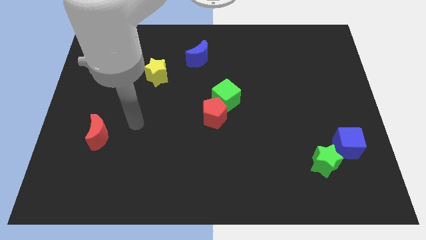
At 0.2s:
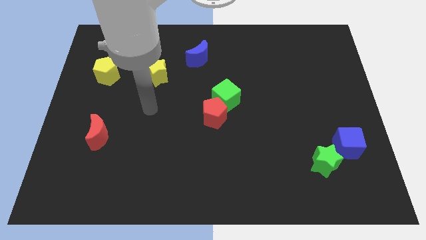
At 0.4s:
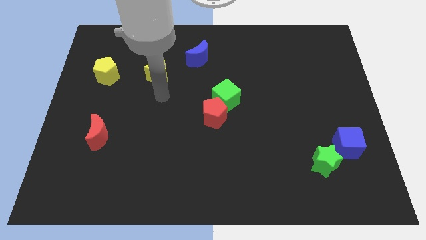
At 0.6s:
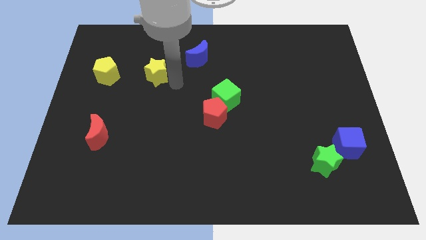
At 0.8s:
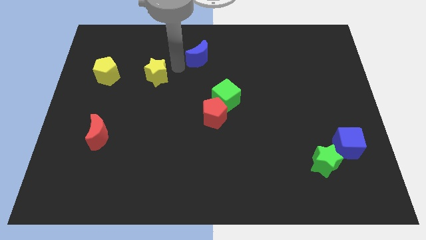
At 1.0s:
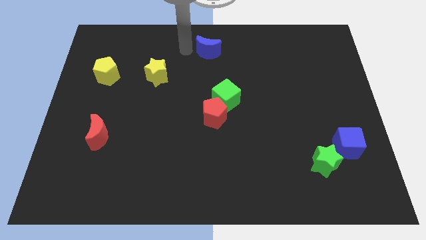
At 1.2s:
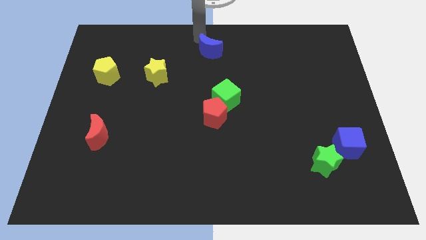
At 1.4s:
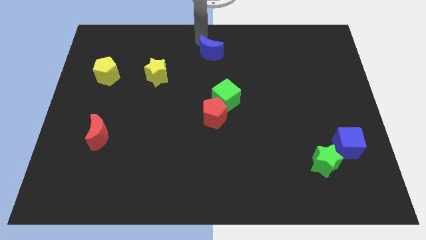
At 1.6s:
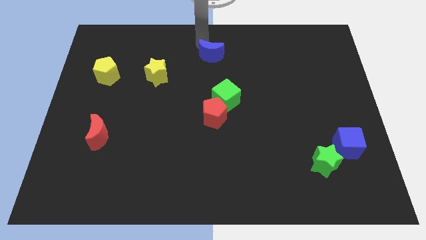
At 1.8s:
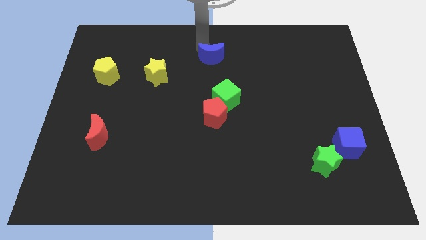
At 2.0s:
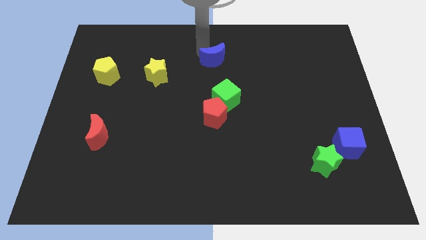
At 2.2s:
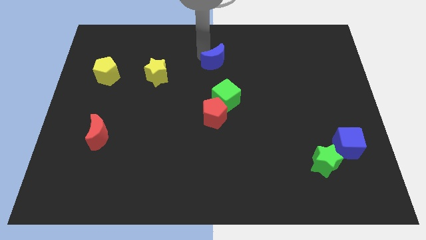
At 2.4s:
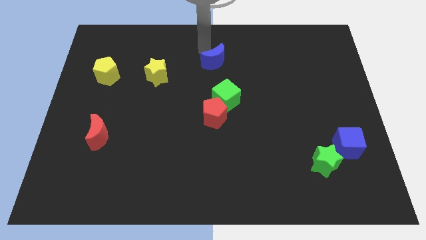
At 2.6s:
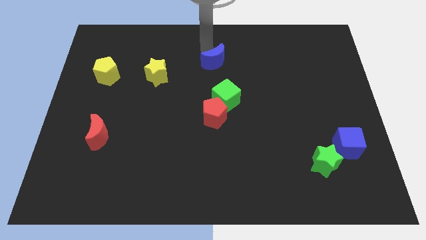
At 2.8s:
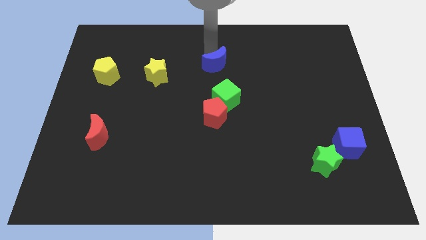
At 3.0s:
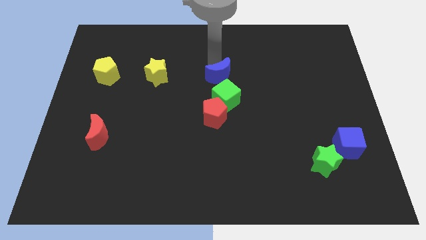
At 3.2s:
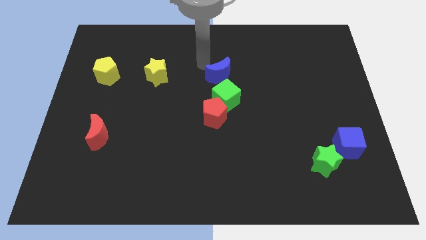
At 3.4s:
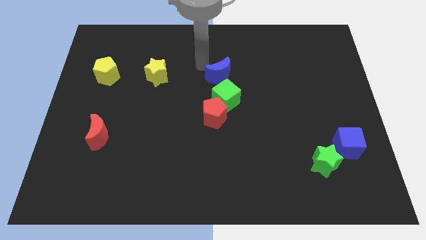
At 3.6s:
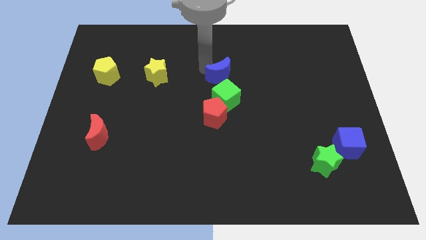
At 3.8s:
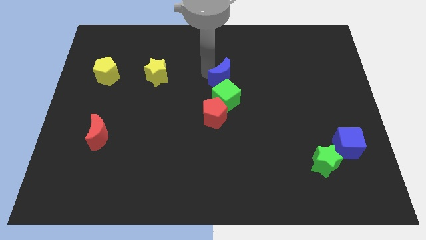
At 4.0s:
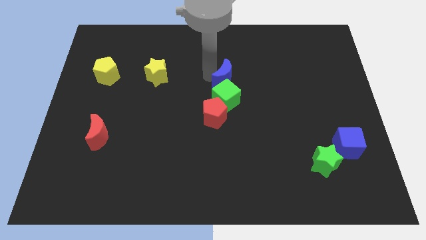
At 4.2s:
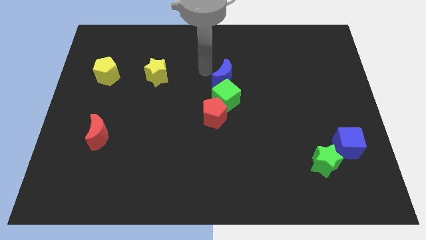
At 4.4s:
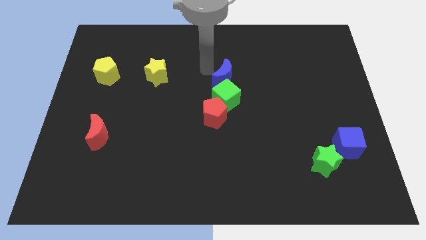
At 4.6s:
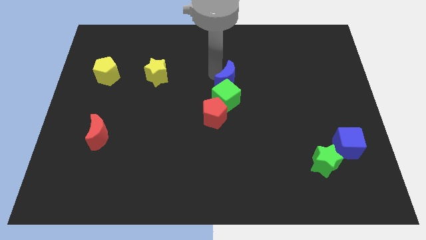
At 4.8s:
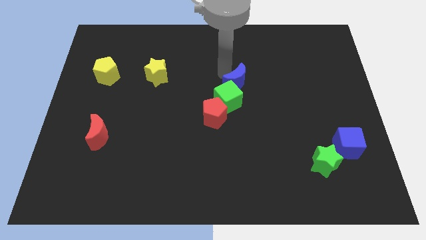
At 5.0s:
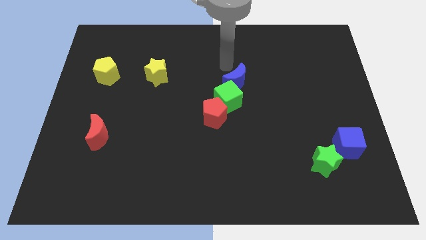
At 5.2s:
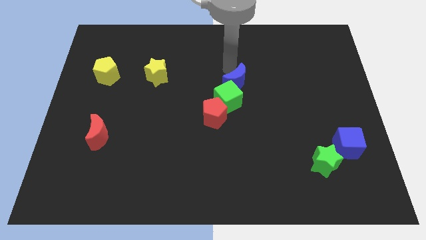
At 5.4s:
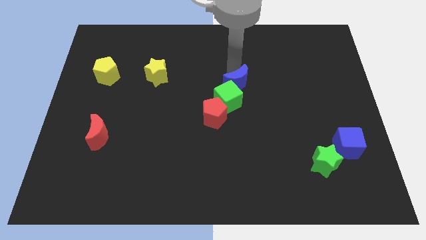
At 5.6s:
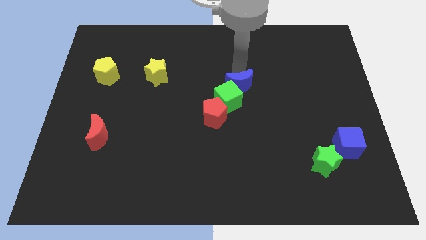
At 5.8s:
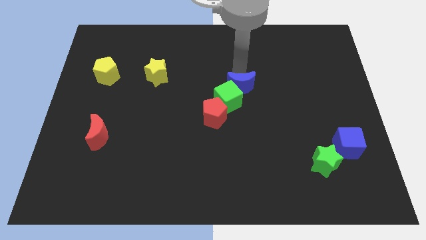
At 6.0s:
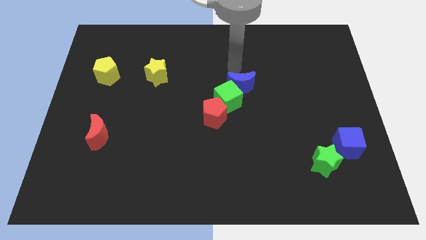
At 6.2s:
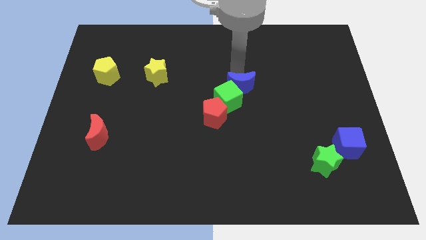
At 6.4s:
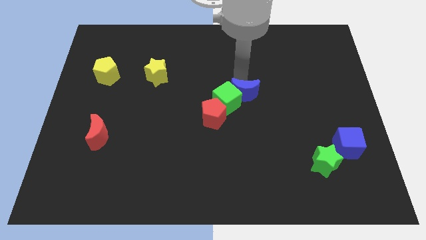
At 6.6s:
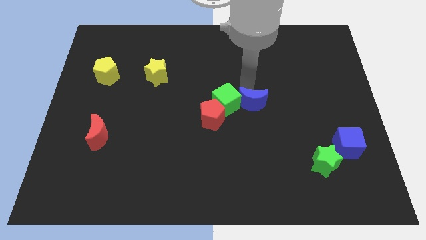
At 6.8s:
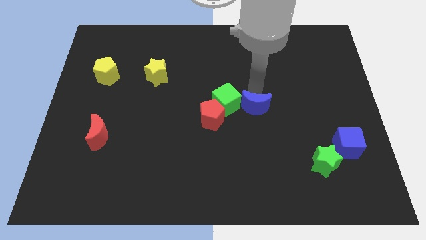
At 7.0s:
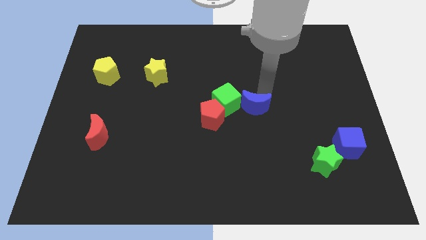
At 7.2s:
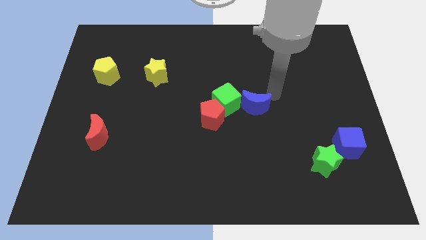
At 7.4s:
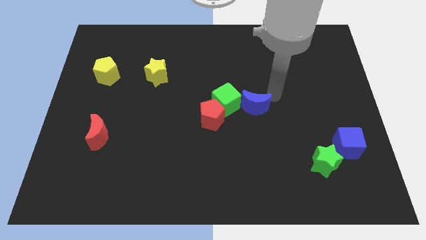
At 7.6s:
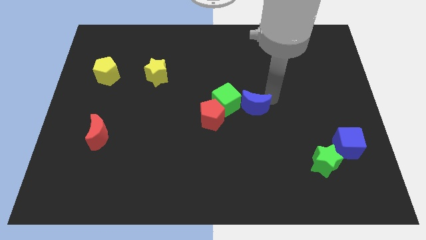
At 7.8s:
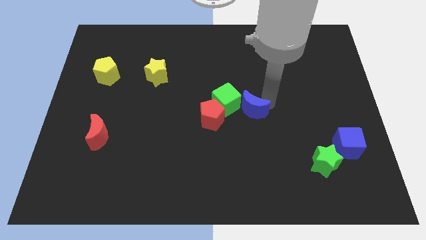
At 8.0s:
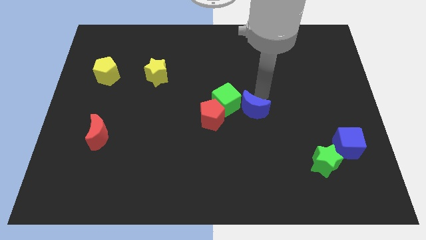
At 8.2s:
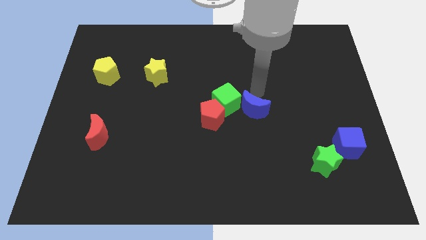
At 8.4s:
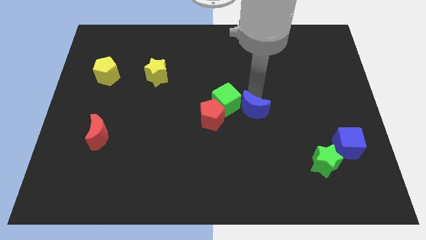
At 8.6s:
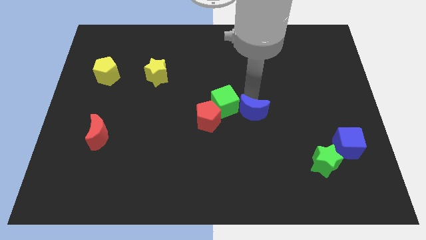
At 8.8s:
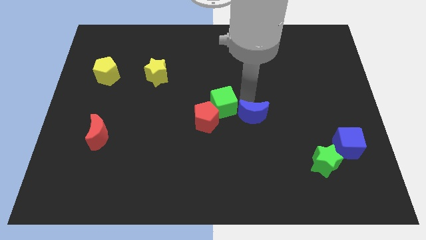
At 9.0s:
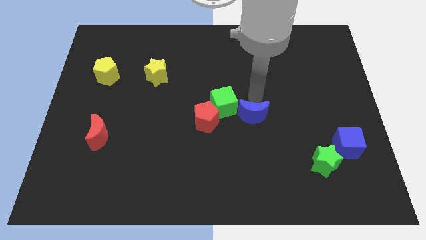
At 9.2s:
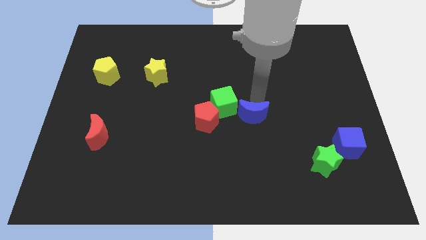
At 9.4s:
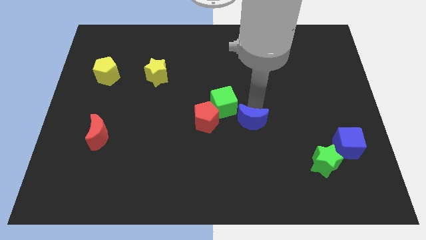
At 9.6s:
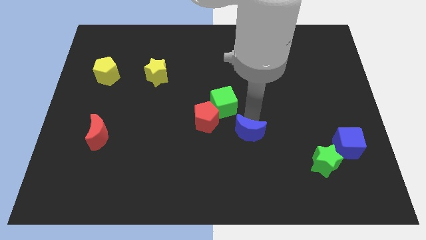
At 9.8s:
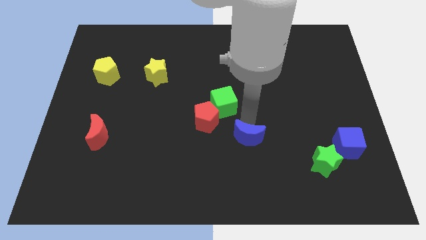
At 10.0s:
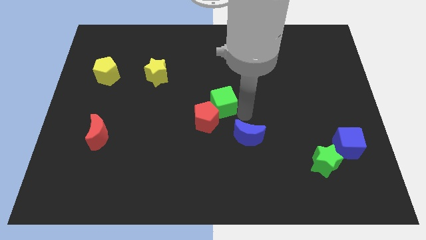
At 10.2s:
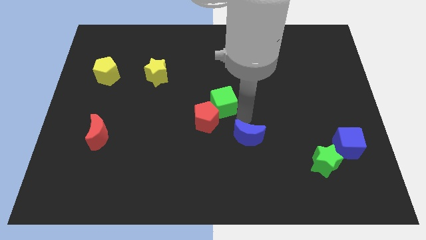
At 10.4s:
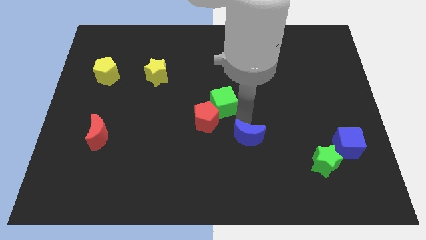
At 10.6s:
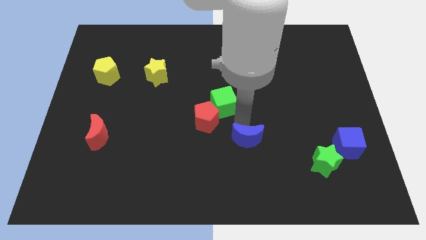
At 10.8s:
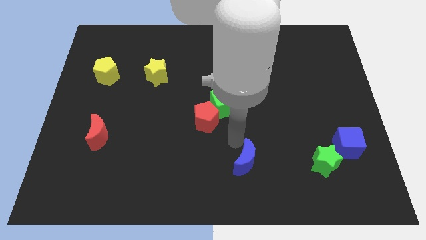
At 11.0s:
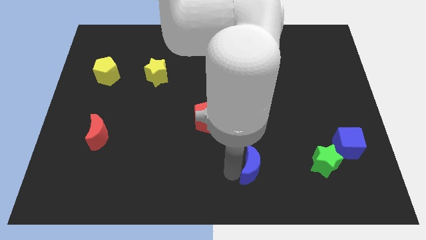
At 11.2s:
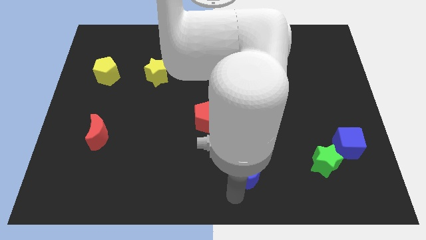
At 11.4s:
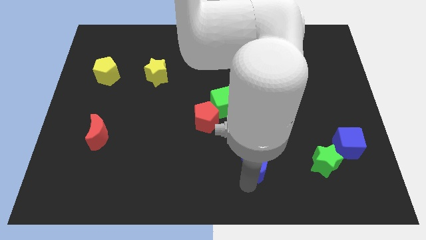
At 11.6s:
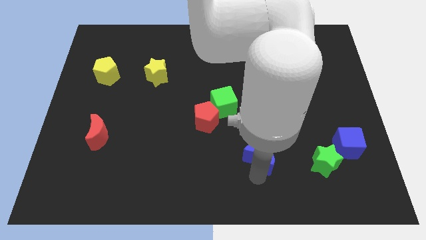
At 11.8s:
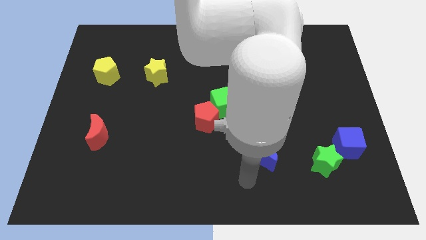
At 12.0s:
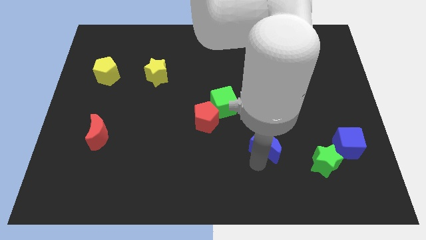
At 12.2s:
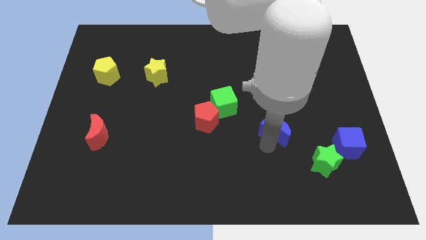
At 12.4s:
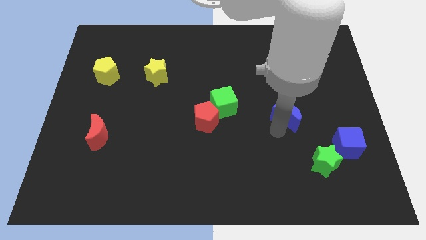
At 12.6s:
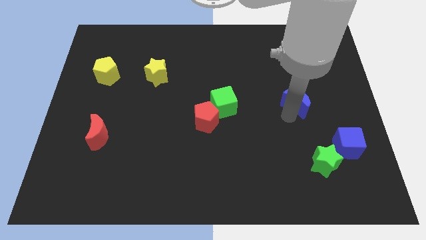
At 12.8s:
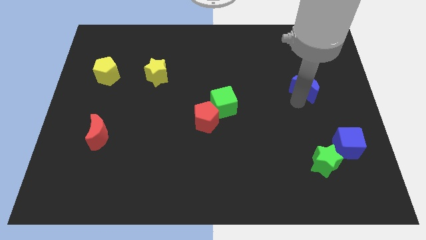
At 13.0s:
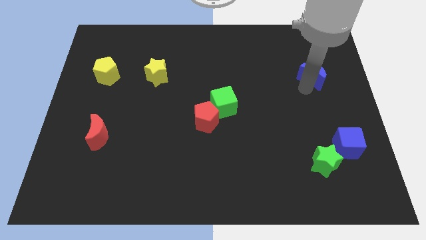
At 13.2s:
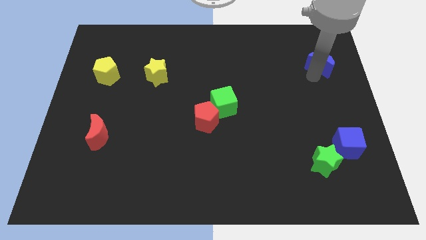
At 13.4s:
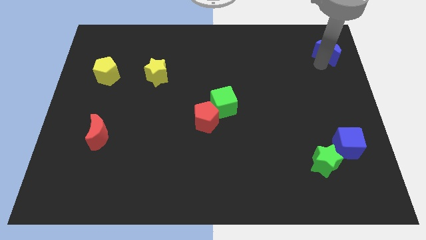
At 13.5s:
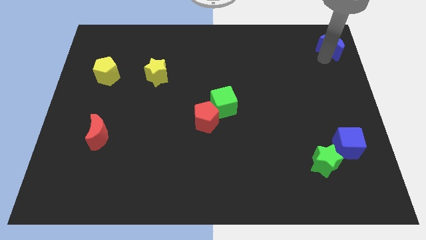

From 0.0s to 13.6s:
slide the blue moon to the top right
